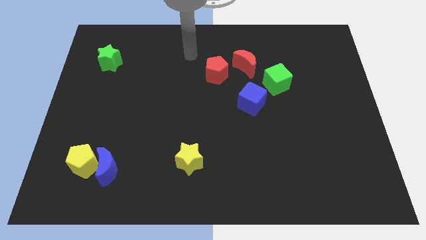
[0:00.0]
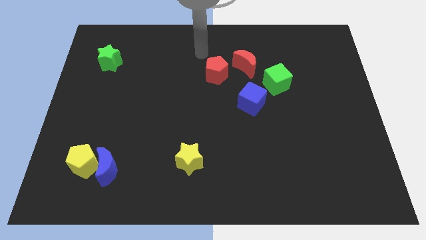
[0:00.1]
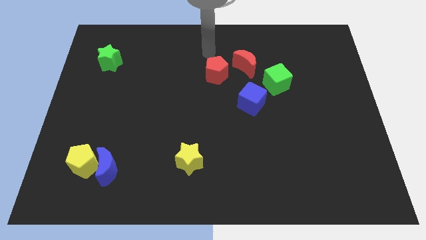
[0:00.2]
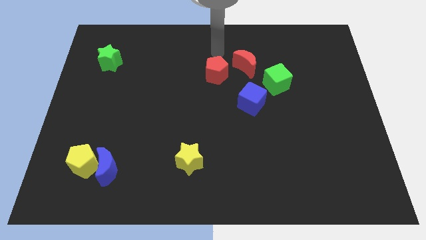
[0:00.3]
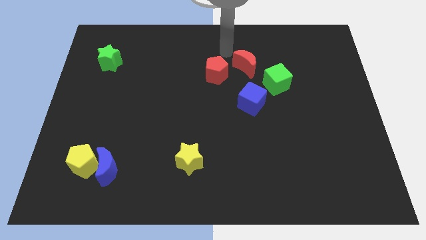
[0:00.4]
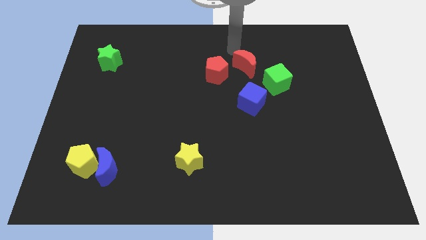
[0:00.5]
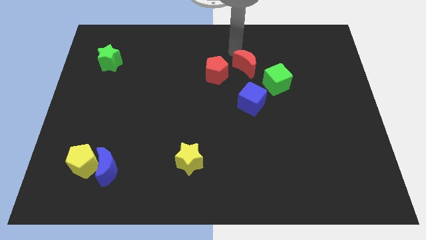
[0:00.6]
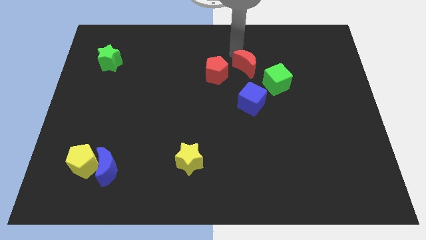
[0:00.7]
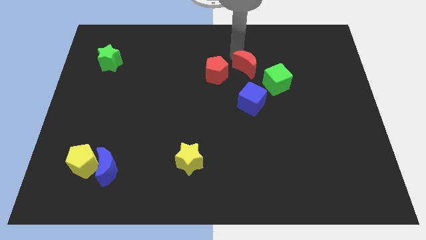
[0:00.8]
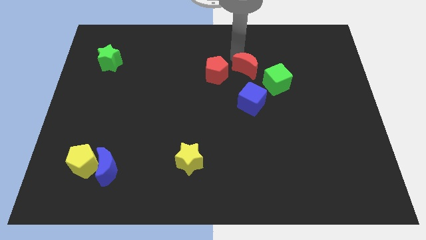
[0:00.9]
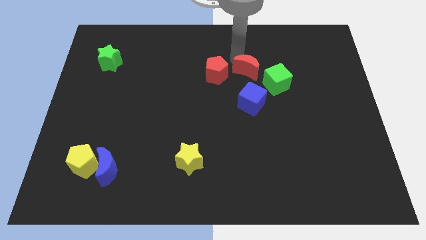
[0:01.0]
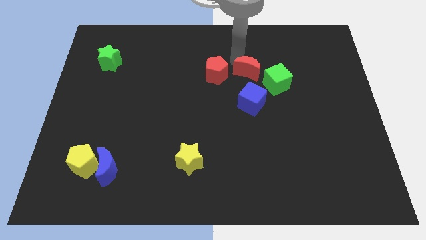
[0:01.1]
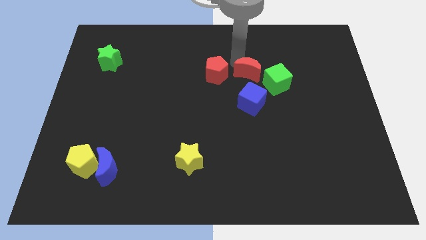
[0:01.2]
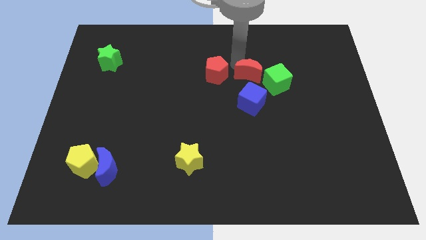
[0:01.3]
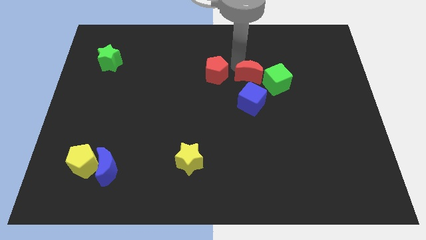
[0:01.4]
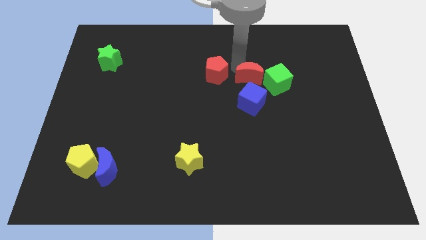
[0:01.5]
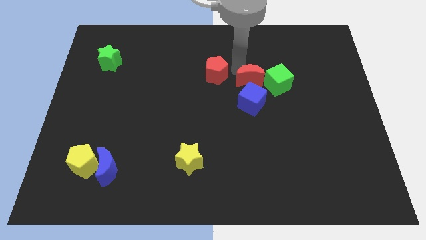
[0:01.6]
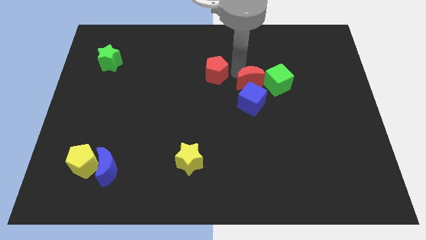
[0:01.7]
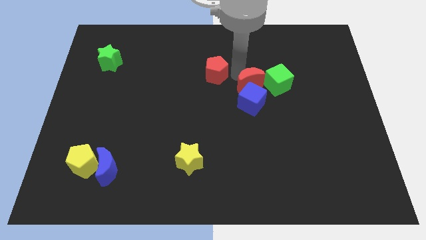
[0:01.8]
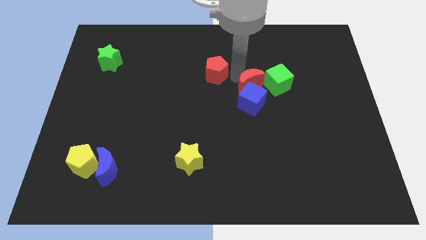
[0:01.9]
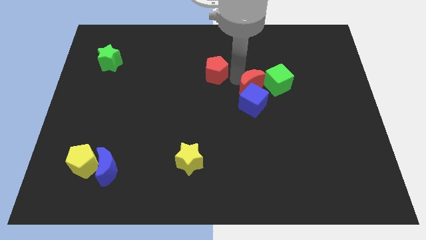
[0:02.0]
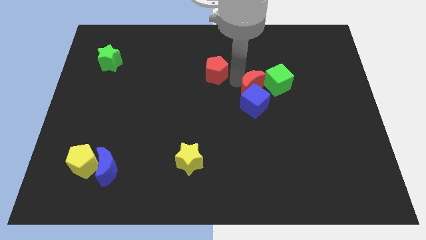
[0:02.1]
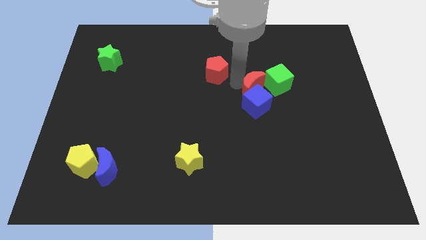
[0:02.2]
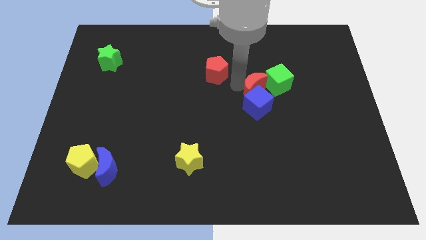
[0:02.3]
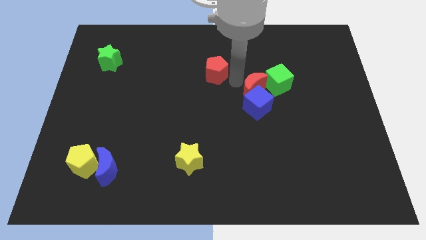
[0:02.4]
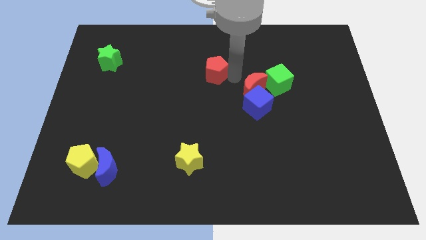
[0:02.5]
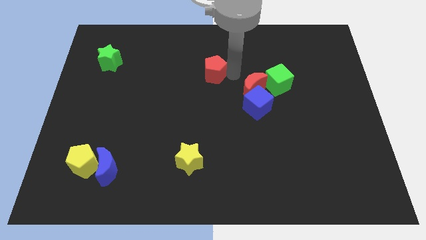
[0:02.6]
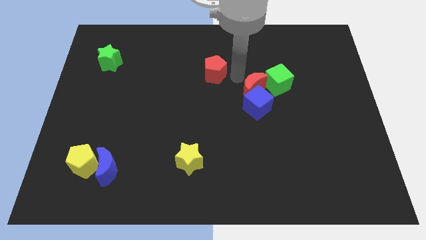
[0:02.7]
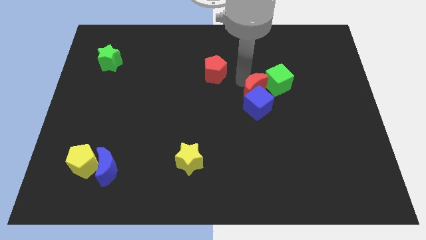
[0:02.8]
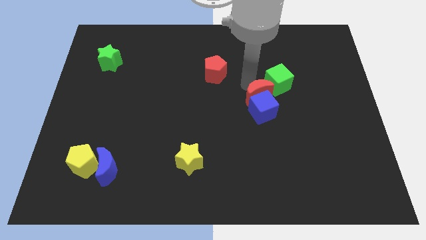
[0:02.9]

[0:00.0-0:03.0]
slightly move the red moon diagonally downwards and right

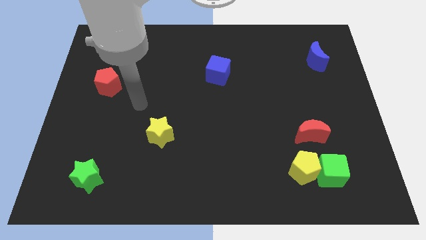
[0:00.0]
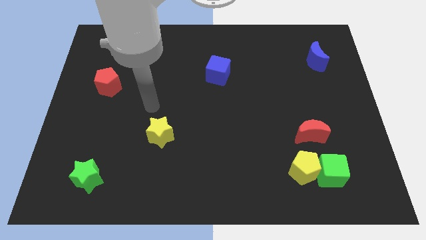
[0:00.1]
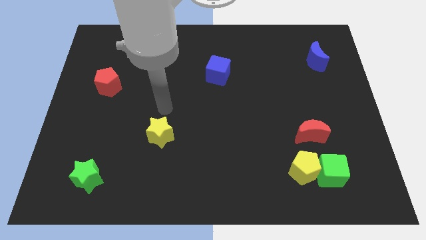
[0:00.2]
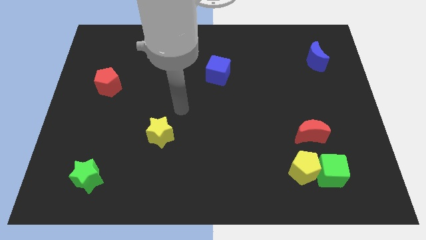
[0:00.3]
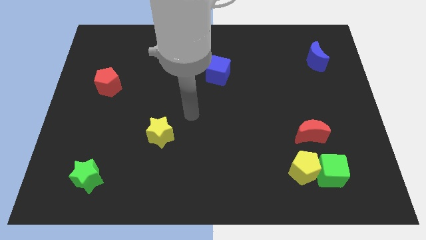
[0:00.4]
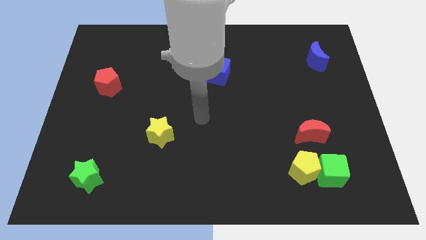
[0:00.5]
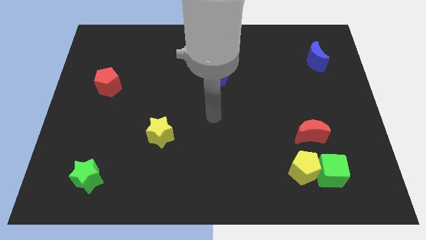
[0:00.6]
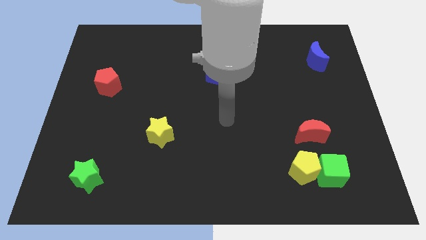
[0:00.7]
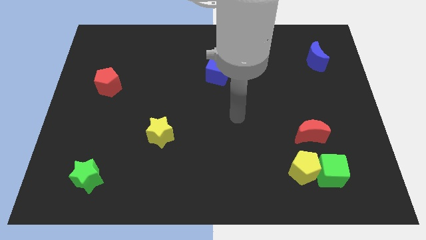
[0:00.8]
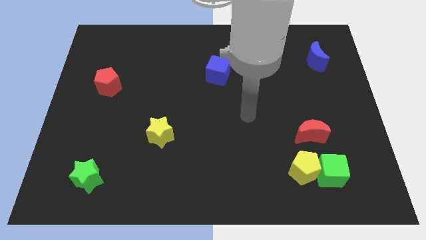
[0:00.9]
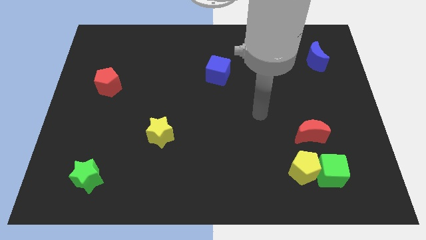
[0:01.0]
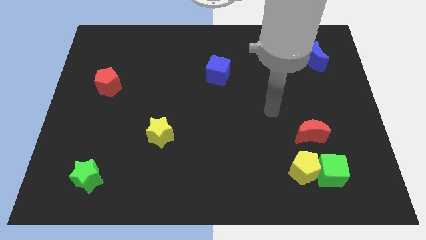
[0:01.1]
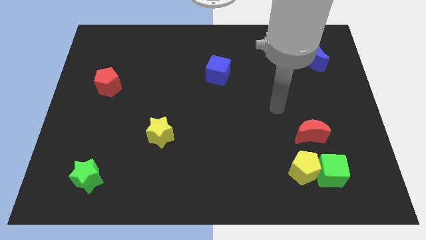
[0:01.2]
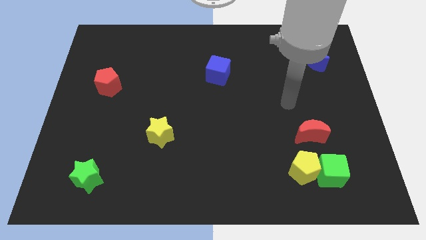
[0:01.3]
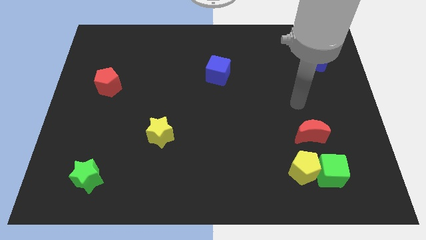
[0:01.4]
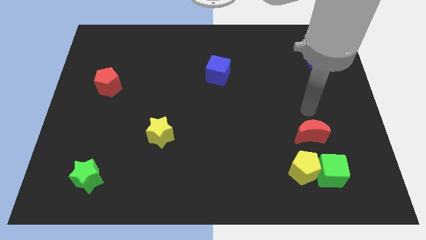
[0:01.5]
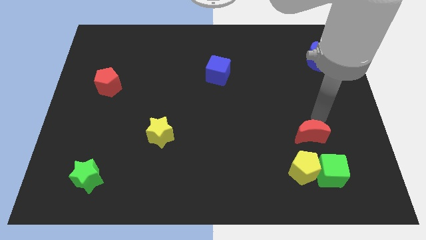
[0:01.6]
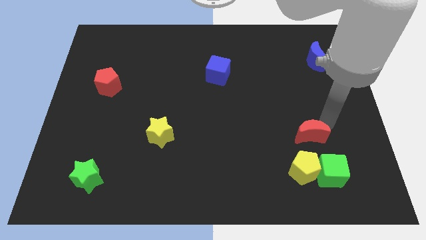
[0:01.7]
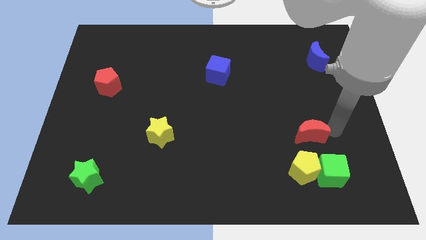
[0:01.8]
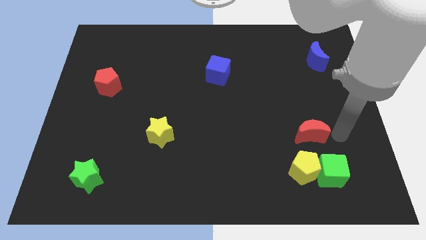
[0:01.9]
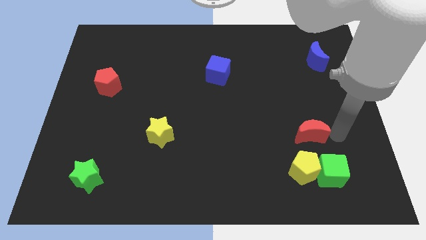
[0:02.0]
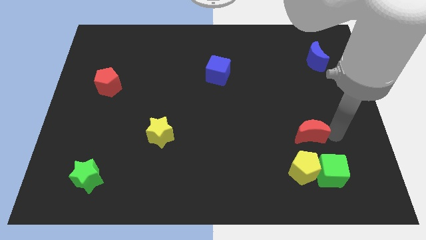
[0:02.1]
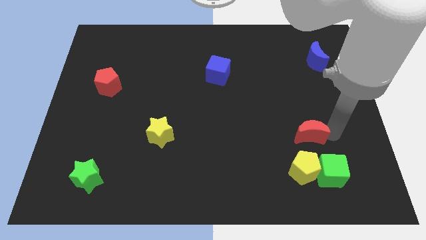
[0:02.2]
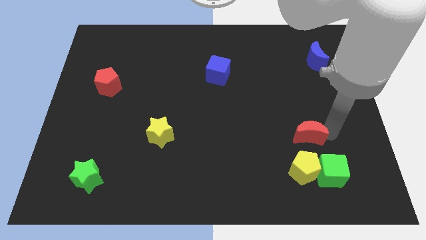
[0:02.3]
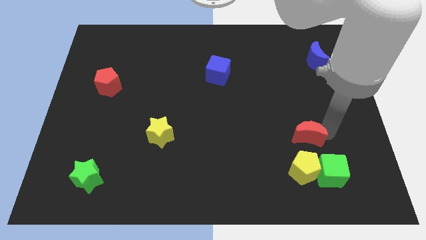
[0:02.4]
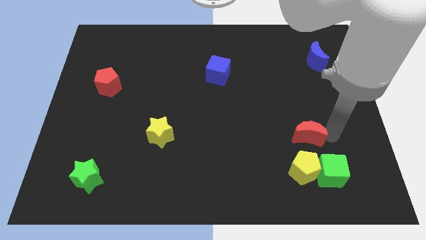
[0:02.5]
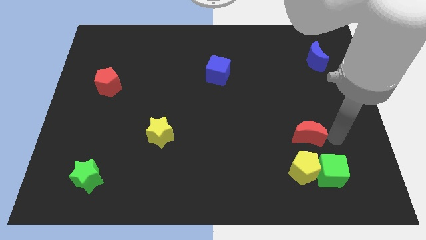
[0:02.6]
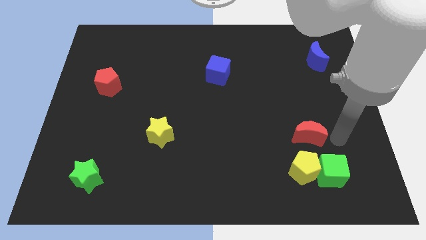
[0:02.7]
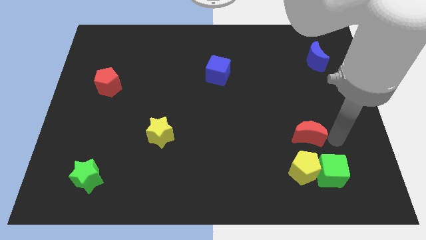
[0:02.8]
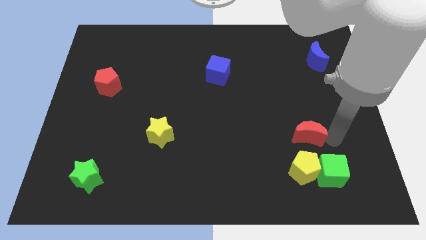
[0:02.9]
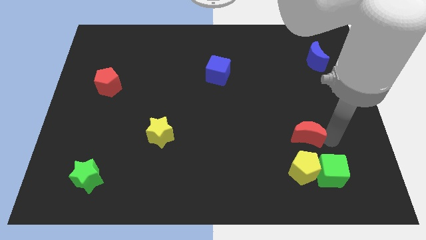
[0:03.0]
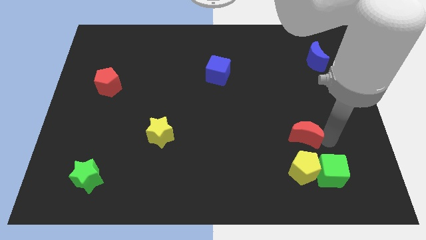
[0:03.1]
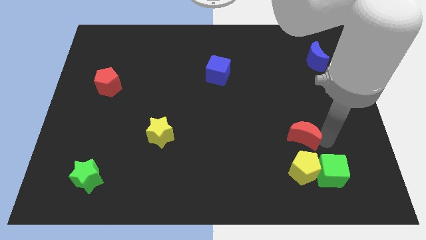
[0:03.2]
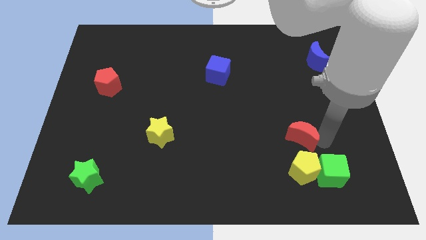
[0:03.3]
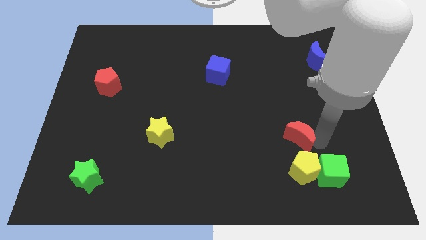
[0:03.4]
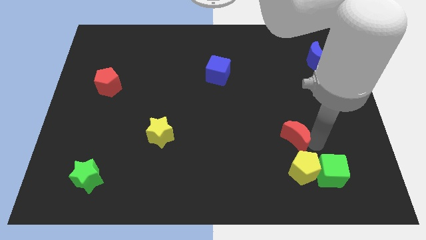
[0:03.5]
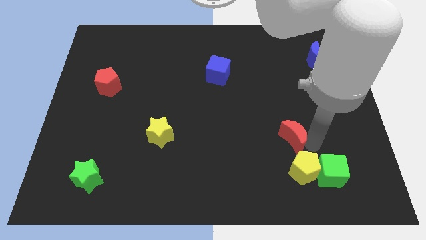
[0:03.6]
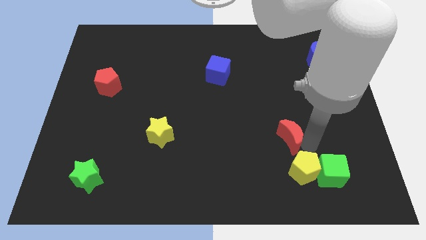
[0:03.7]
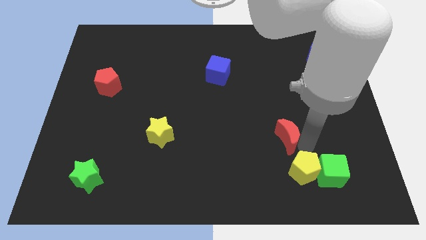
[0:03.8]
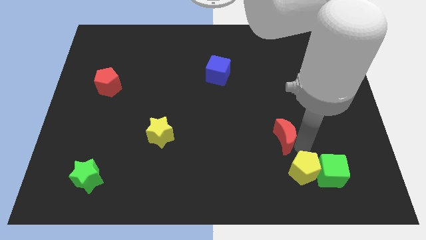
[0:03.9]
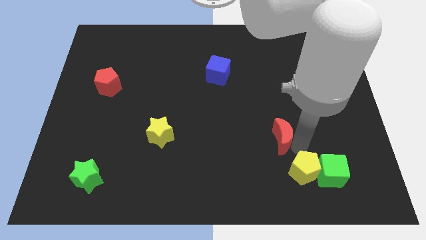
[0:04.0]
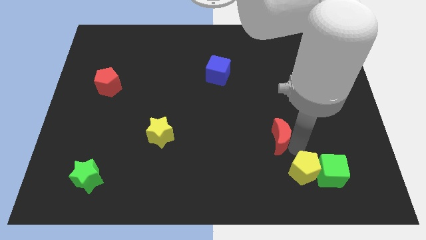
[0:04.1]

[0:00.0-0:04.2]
move the red moon somewhat left

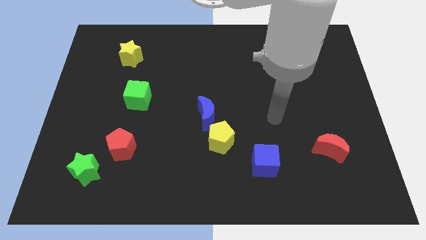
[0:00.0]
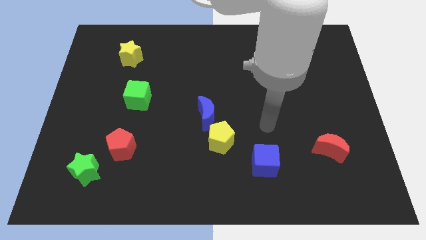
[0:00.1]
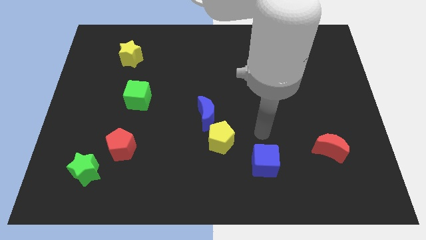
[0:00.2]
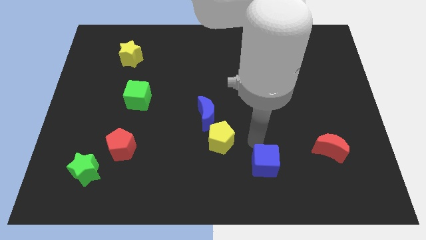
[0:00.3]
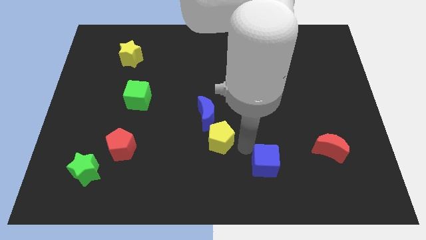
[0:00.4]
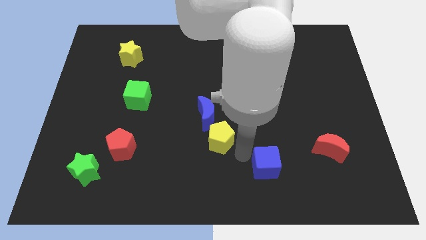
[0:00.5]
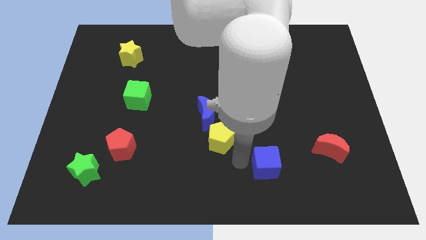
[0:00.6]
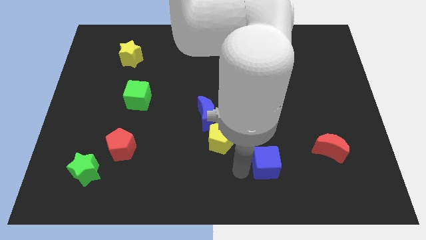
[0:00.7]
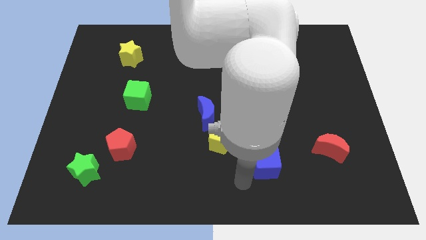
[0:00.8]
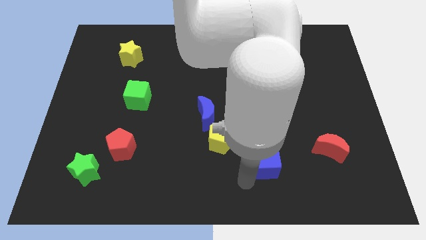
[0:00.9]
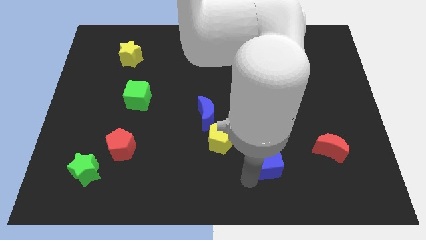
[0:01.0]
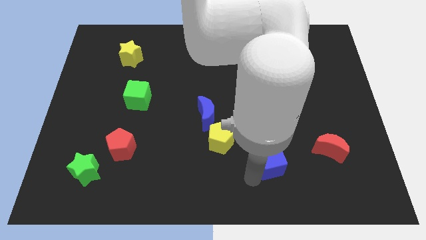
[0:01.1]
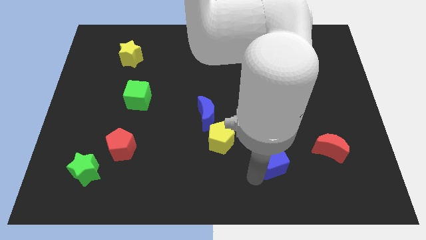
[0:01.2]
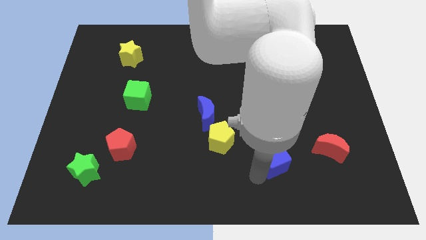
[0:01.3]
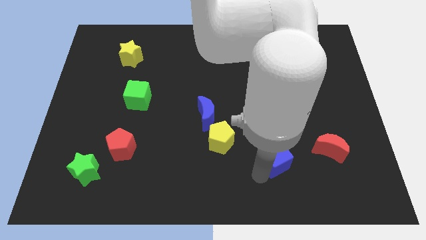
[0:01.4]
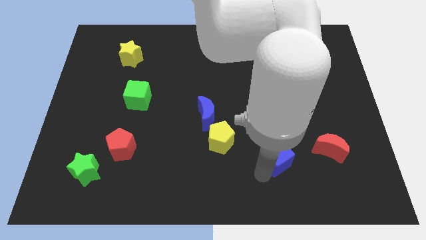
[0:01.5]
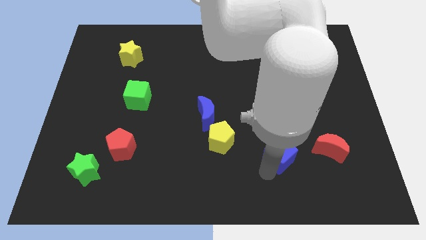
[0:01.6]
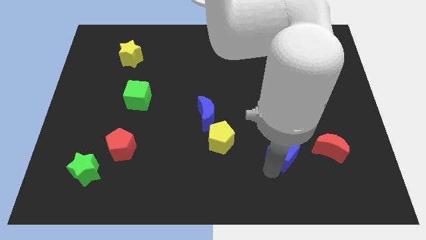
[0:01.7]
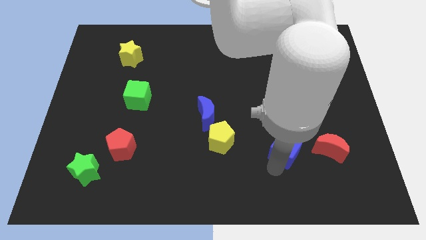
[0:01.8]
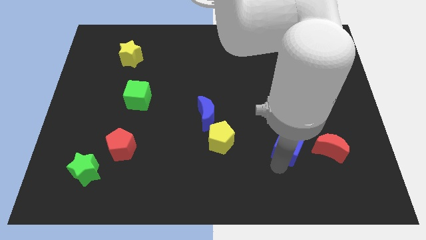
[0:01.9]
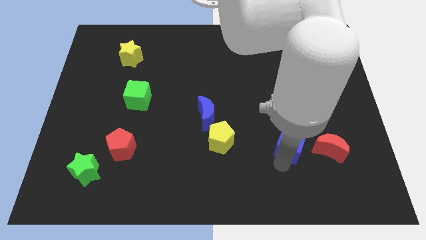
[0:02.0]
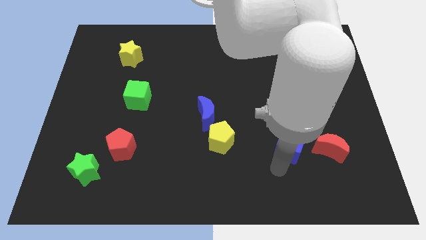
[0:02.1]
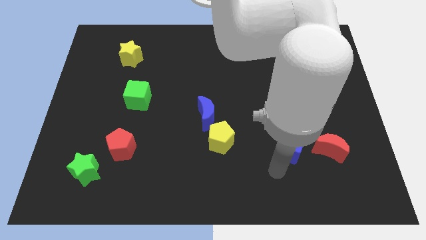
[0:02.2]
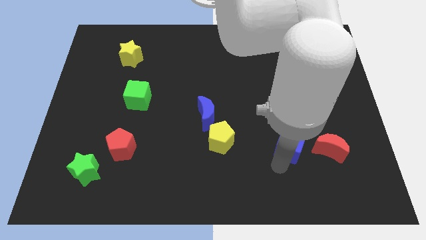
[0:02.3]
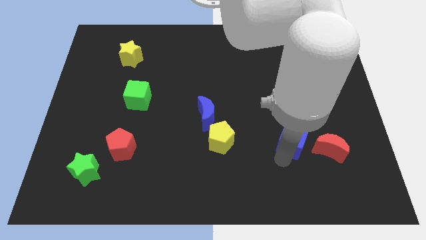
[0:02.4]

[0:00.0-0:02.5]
slide the blue cube upwards and then right a little bit
